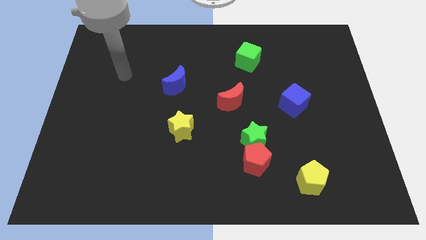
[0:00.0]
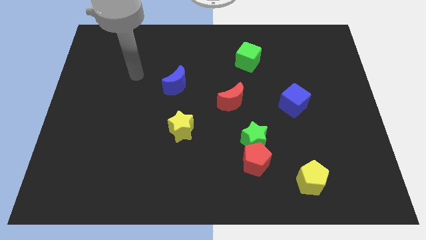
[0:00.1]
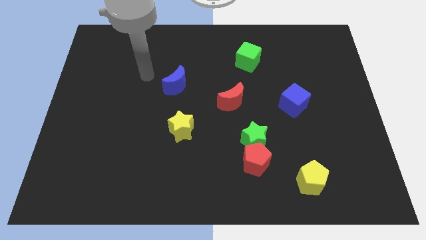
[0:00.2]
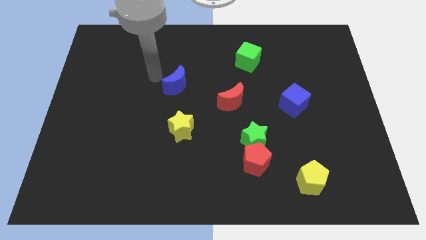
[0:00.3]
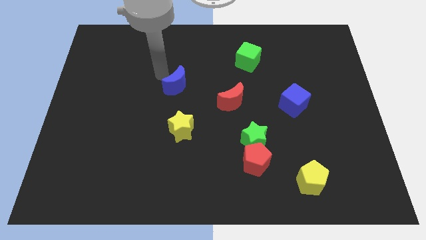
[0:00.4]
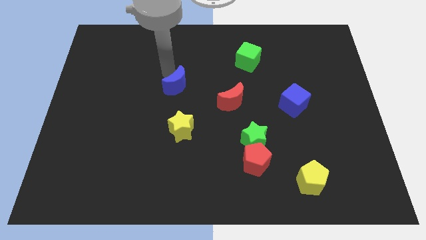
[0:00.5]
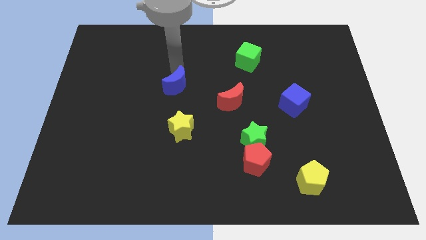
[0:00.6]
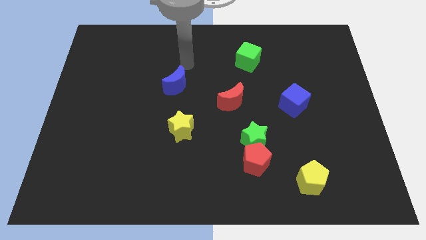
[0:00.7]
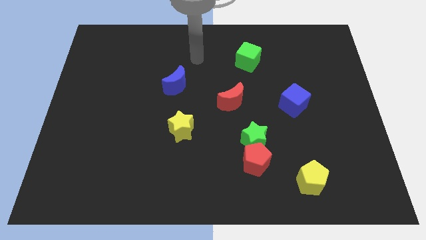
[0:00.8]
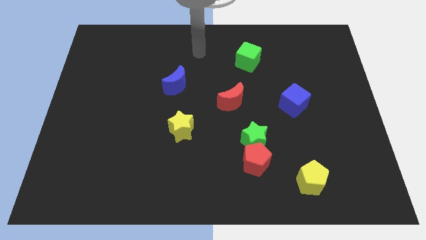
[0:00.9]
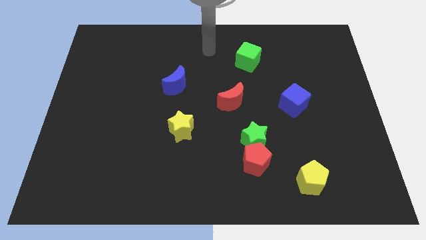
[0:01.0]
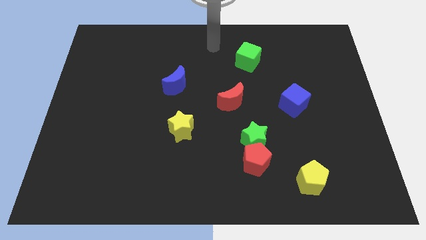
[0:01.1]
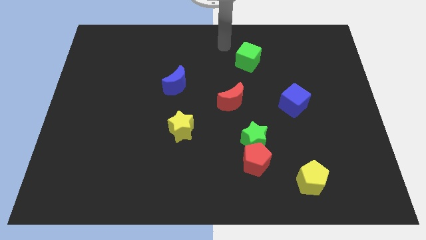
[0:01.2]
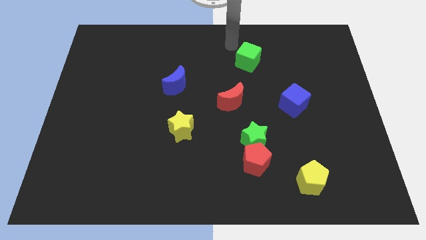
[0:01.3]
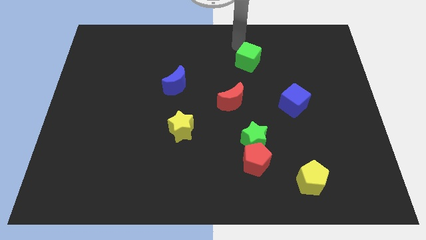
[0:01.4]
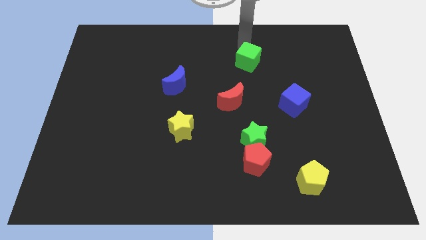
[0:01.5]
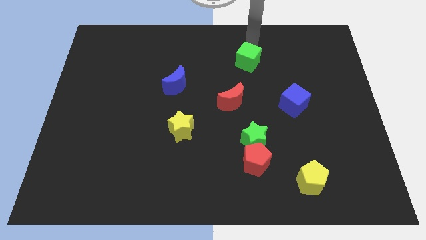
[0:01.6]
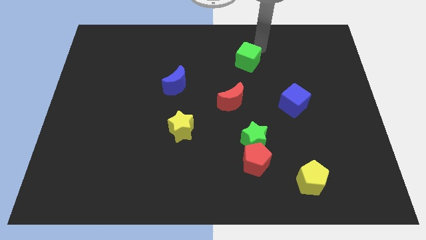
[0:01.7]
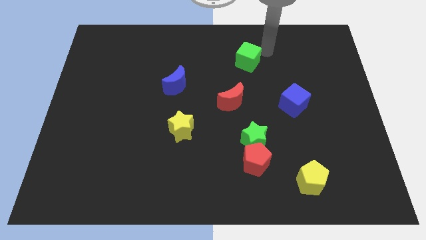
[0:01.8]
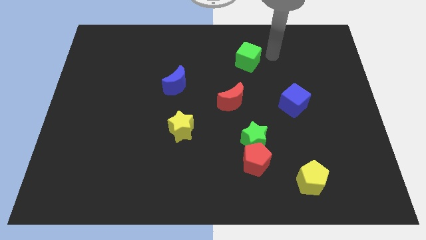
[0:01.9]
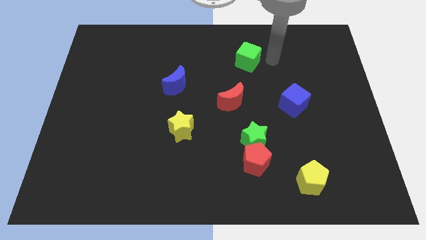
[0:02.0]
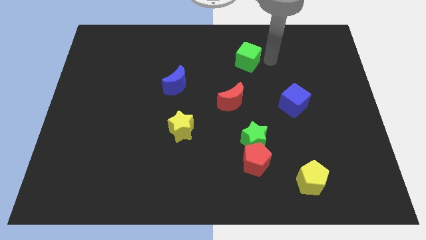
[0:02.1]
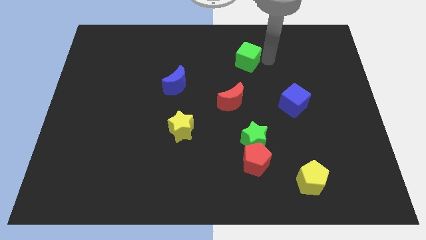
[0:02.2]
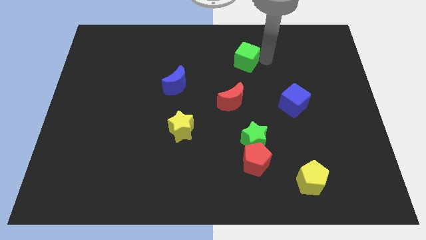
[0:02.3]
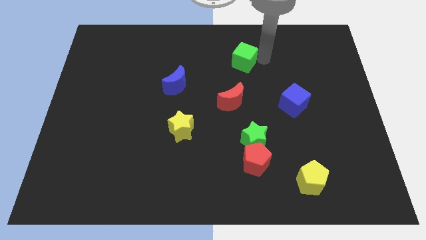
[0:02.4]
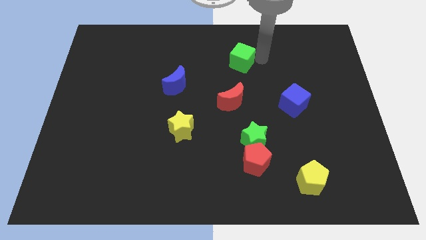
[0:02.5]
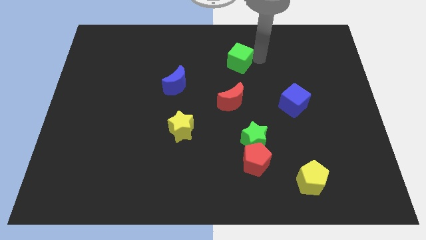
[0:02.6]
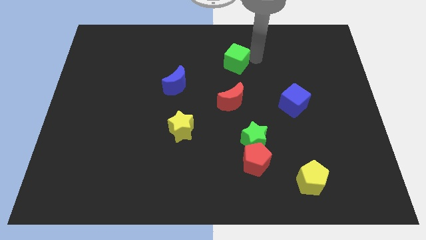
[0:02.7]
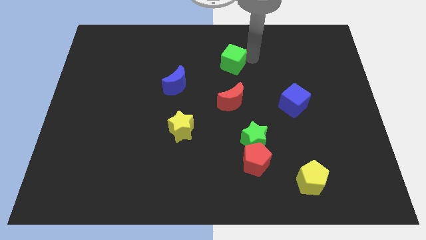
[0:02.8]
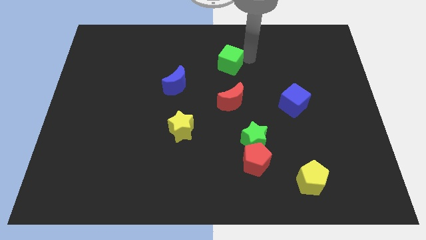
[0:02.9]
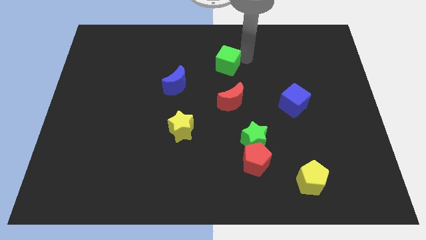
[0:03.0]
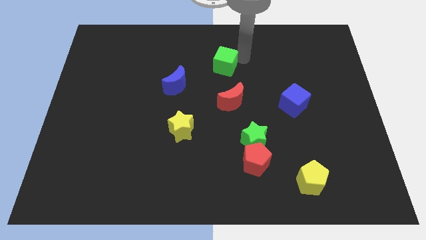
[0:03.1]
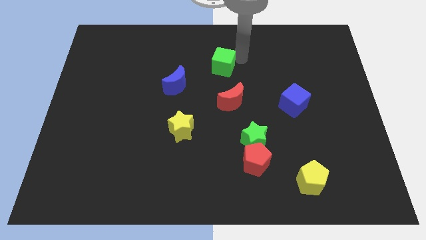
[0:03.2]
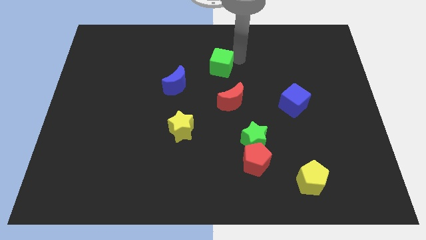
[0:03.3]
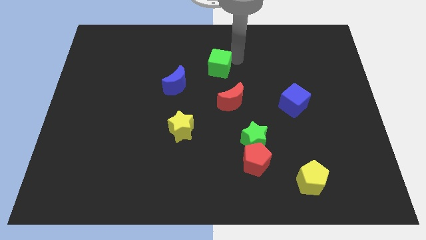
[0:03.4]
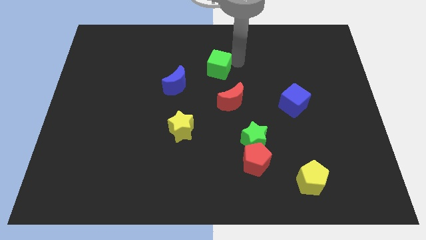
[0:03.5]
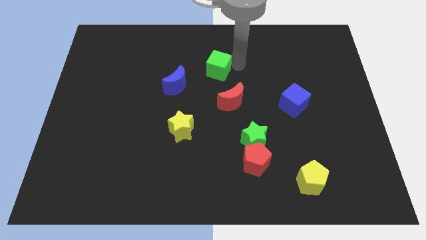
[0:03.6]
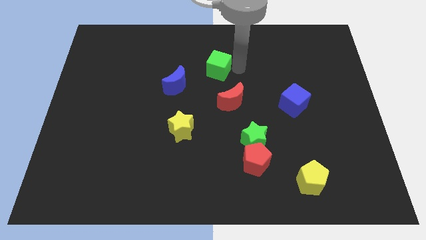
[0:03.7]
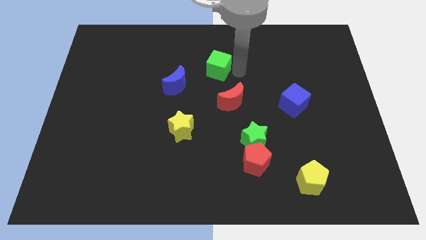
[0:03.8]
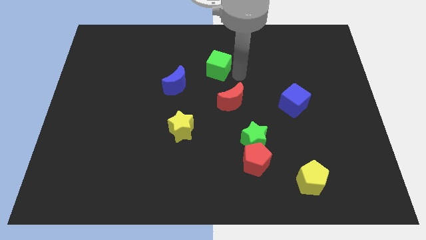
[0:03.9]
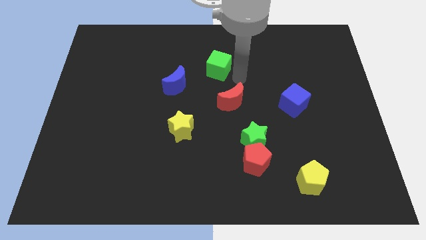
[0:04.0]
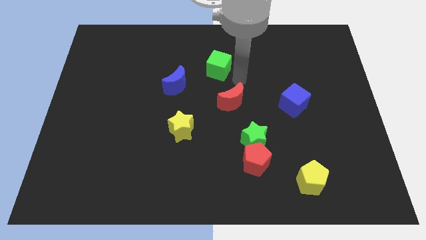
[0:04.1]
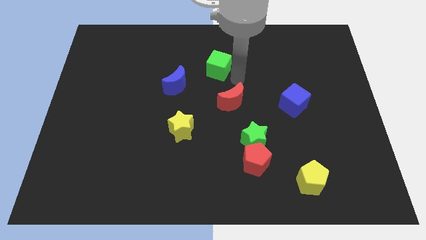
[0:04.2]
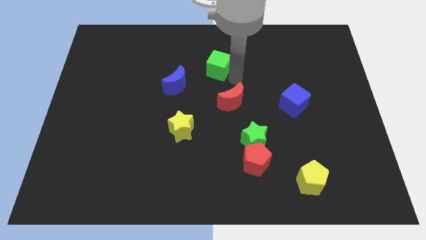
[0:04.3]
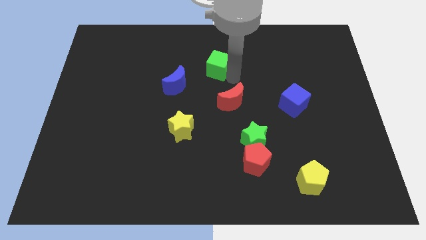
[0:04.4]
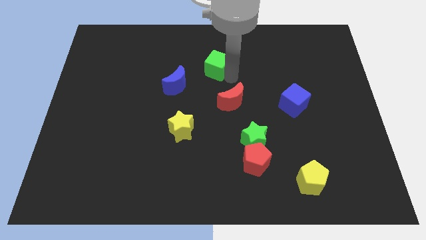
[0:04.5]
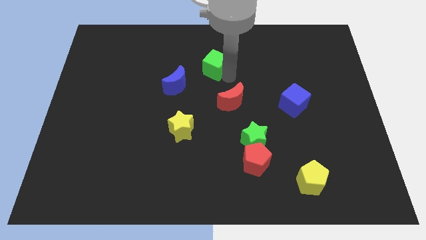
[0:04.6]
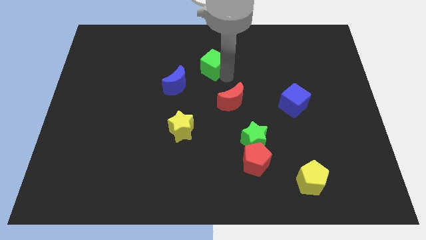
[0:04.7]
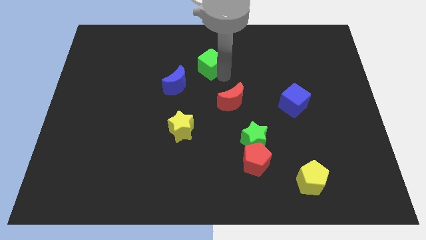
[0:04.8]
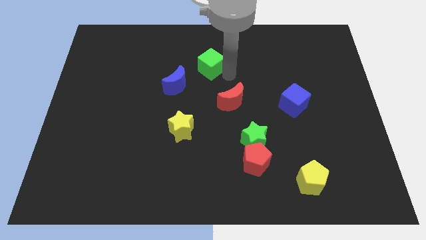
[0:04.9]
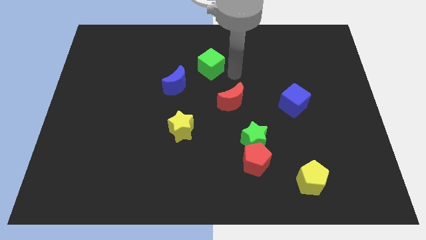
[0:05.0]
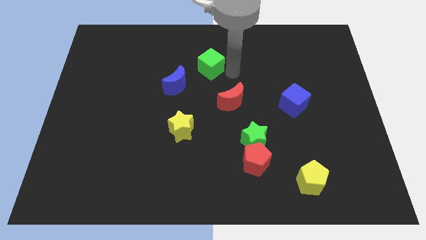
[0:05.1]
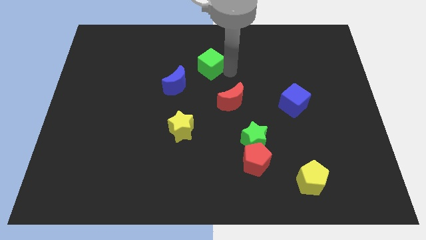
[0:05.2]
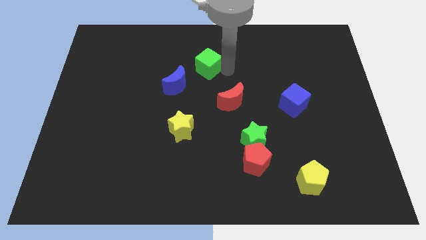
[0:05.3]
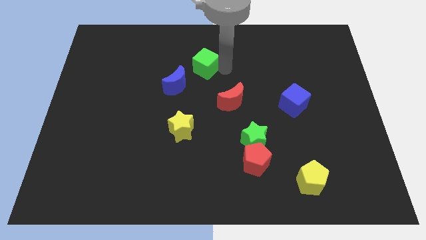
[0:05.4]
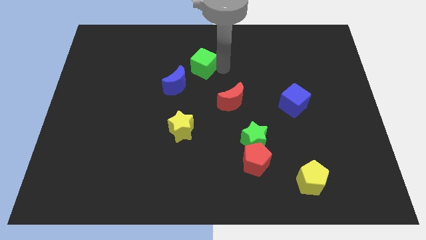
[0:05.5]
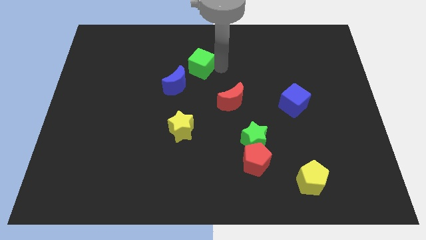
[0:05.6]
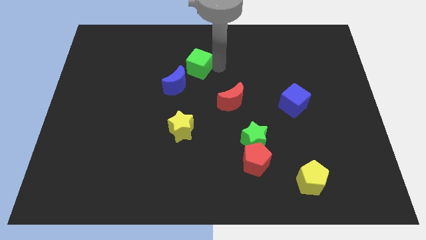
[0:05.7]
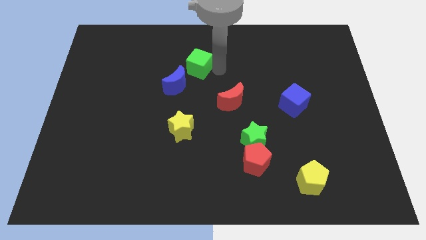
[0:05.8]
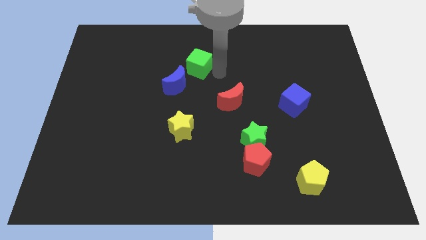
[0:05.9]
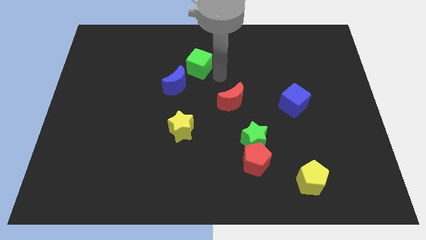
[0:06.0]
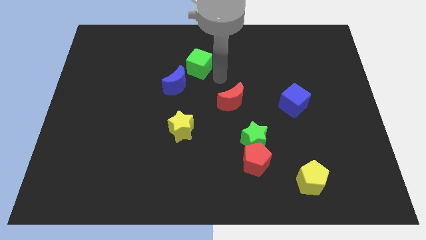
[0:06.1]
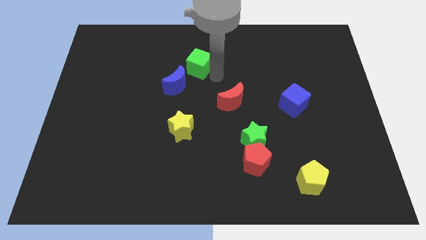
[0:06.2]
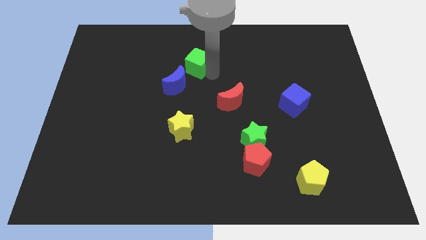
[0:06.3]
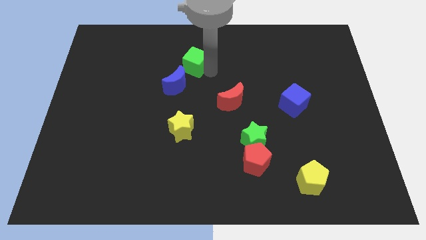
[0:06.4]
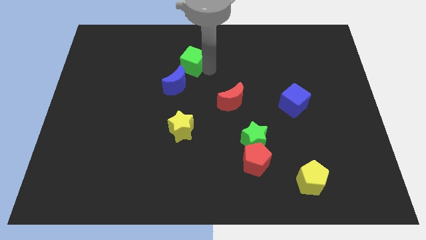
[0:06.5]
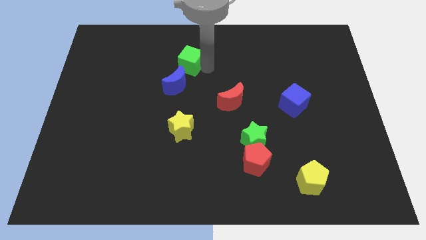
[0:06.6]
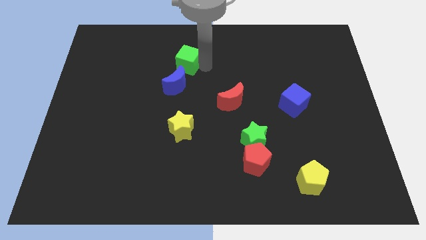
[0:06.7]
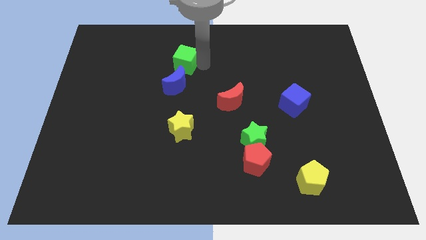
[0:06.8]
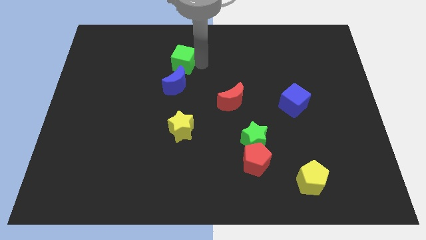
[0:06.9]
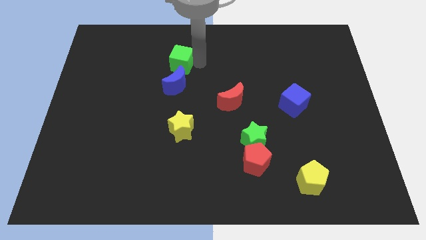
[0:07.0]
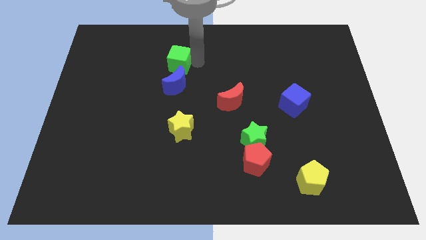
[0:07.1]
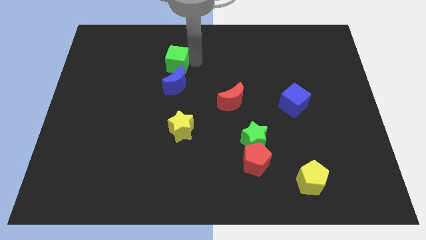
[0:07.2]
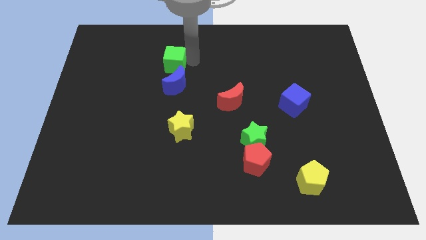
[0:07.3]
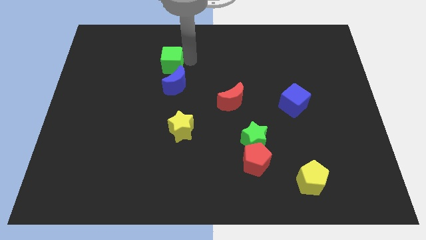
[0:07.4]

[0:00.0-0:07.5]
move the green cube left

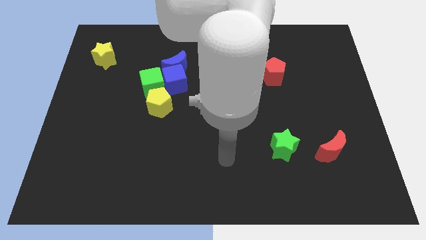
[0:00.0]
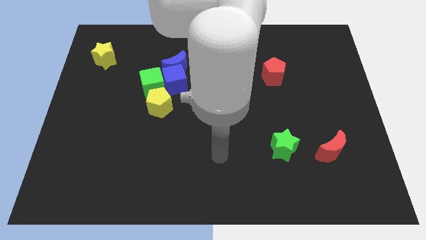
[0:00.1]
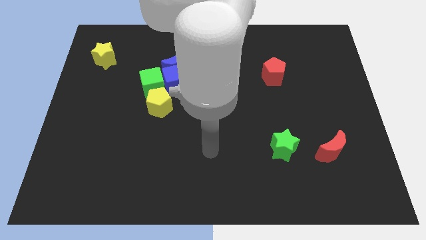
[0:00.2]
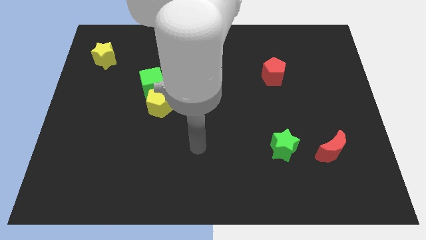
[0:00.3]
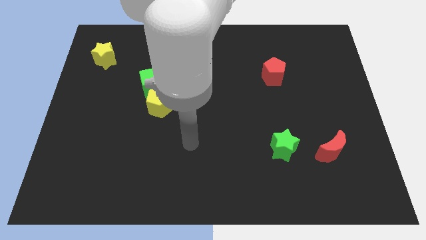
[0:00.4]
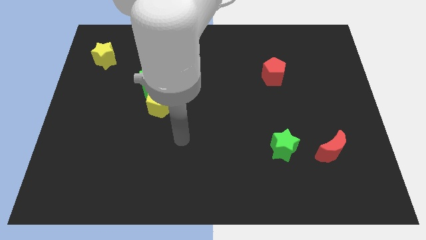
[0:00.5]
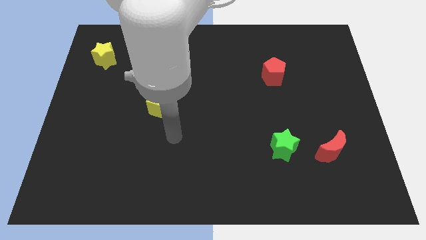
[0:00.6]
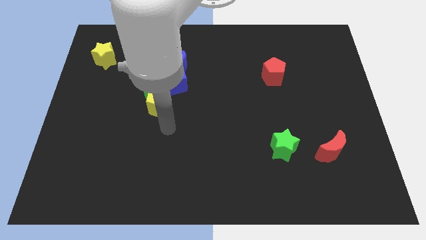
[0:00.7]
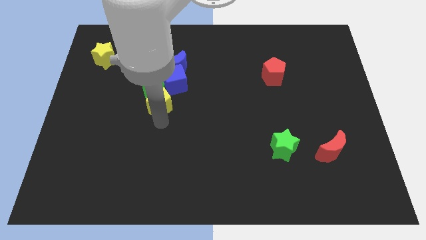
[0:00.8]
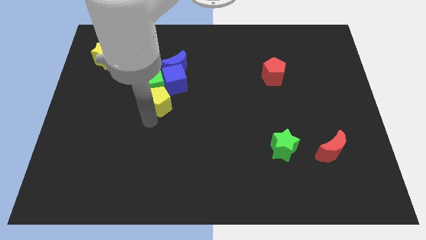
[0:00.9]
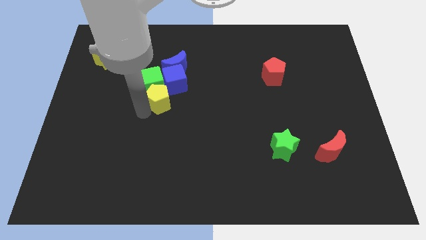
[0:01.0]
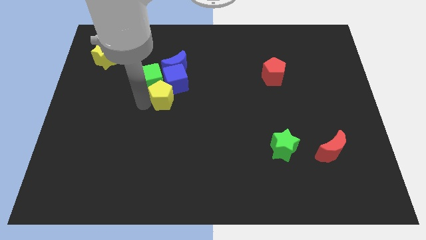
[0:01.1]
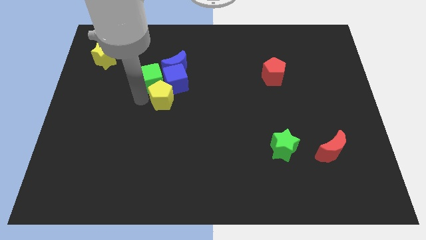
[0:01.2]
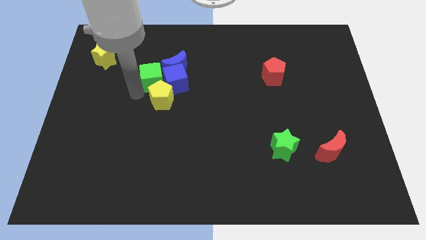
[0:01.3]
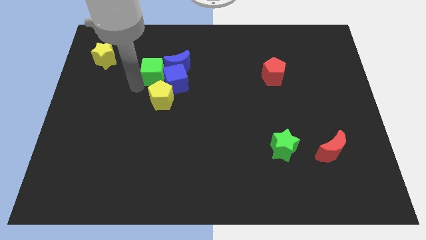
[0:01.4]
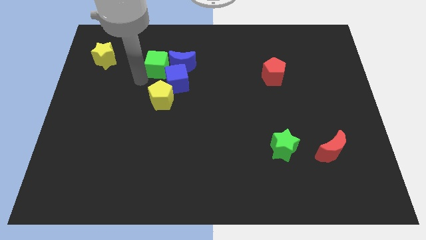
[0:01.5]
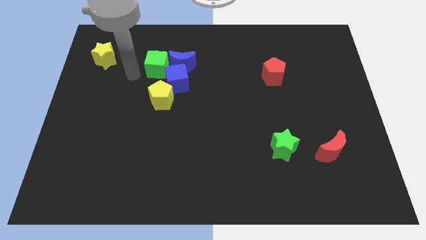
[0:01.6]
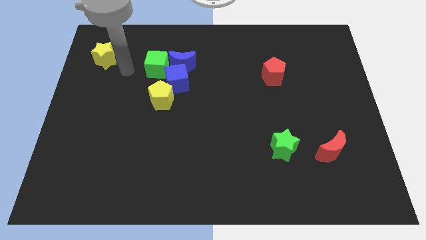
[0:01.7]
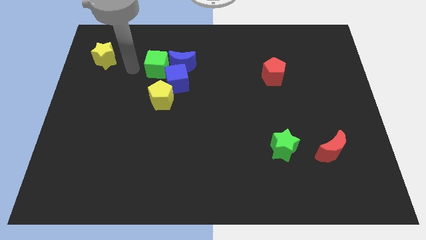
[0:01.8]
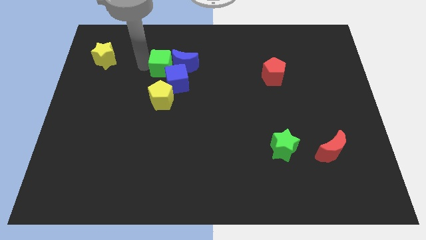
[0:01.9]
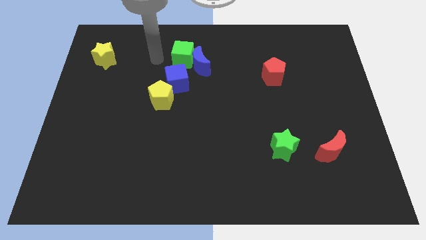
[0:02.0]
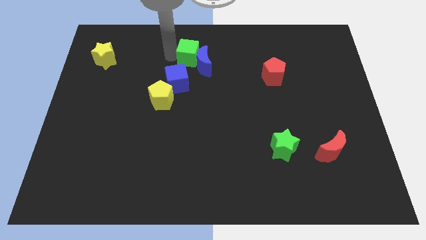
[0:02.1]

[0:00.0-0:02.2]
slightly push the blue moon right
